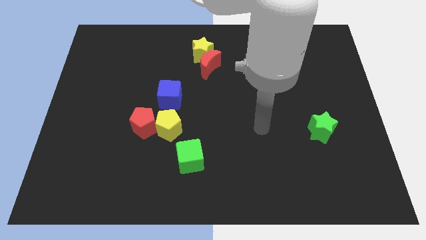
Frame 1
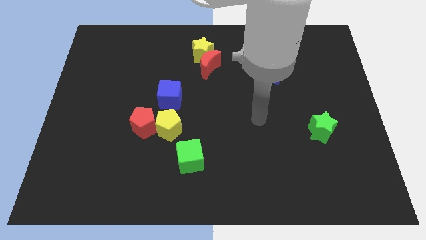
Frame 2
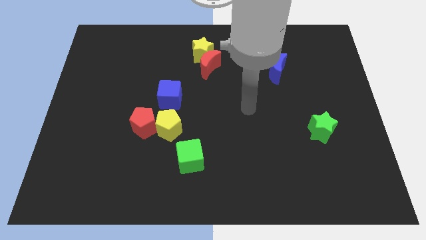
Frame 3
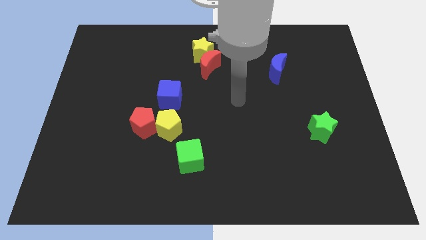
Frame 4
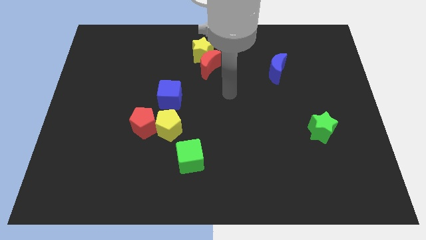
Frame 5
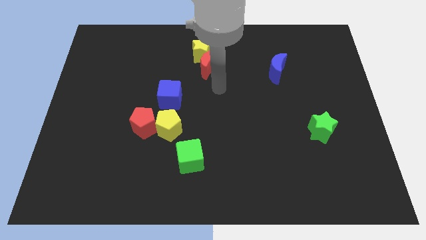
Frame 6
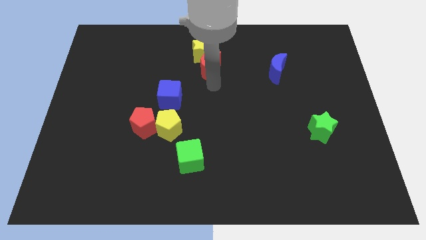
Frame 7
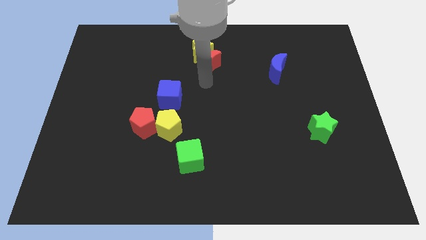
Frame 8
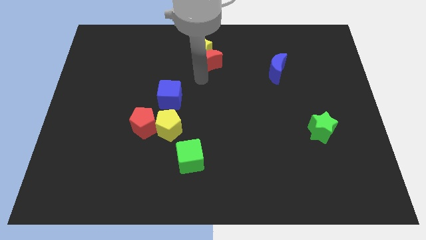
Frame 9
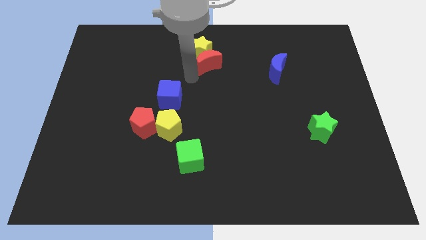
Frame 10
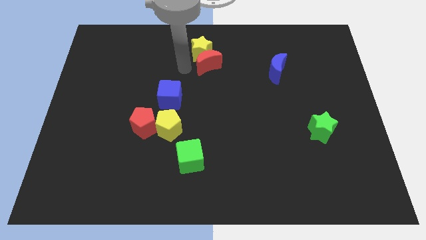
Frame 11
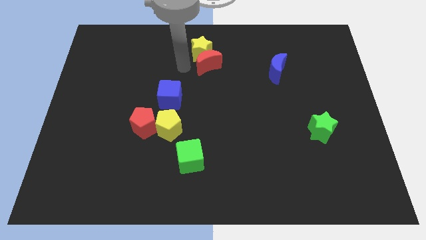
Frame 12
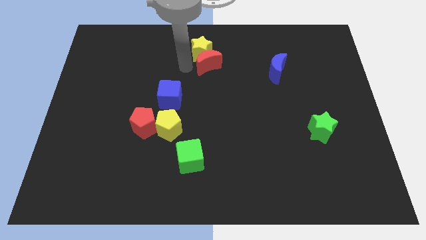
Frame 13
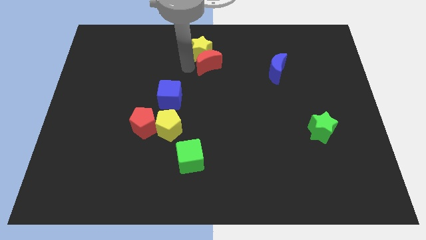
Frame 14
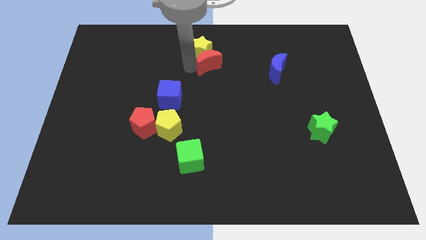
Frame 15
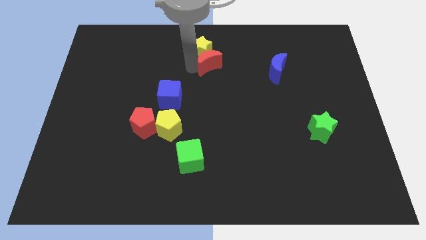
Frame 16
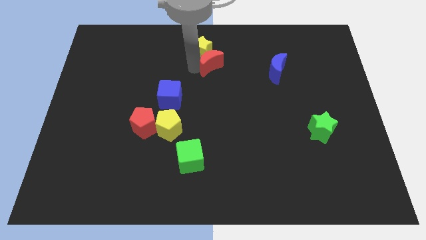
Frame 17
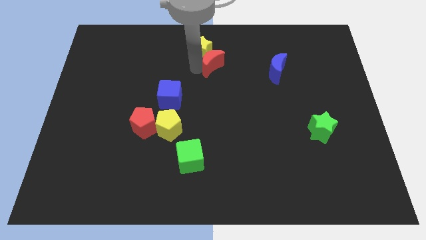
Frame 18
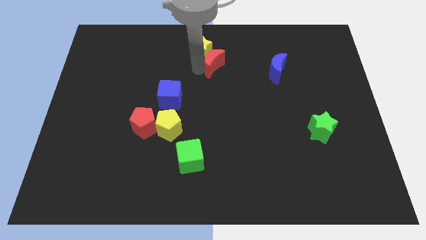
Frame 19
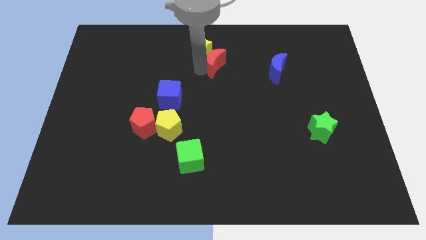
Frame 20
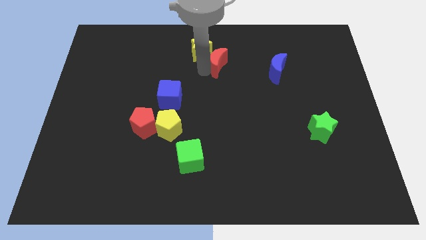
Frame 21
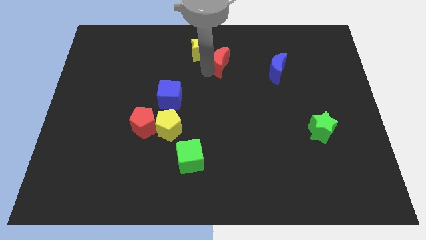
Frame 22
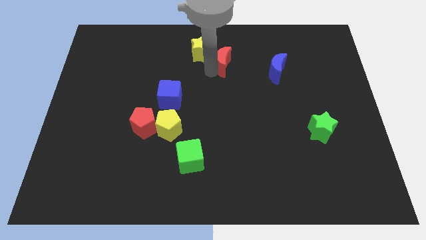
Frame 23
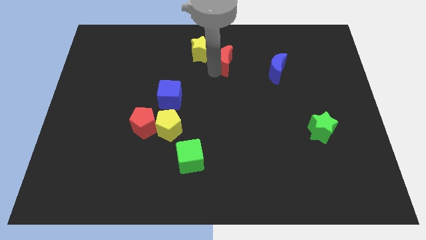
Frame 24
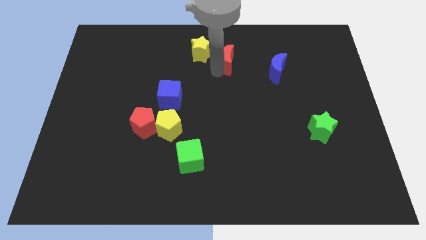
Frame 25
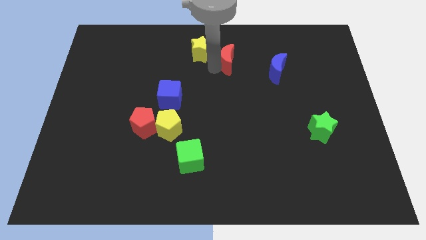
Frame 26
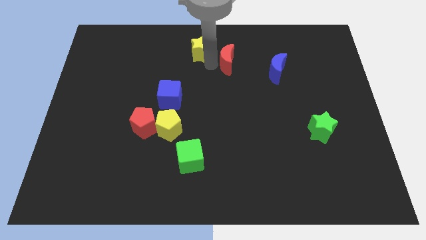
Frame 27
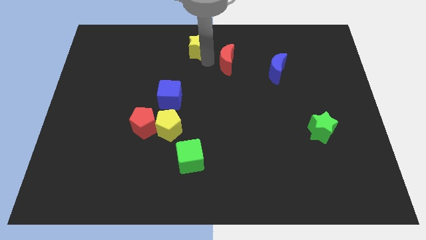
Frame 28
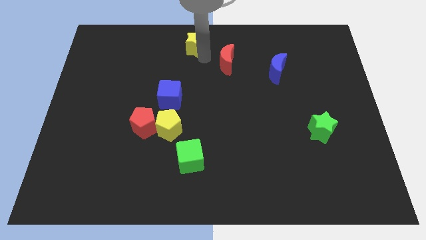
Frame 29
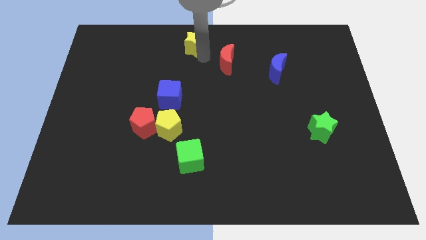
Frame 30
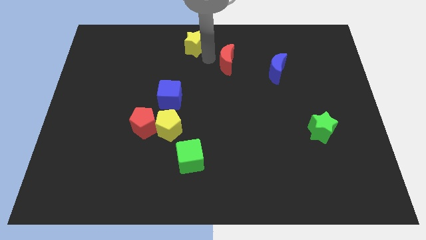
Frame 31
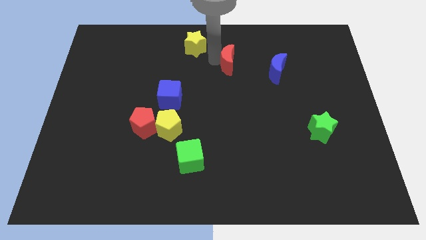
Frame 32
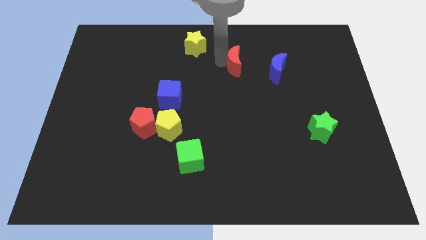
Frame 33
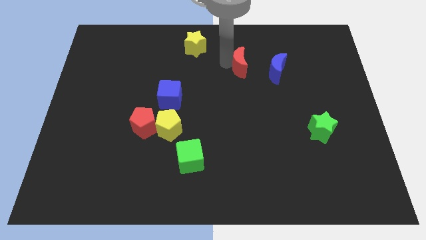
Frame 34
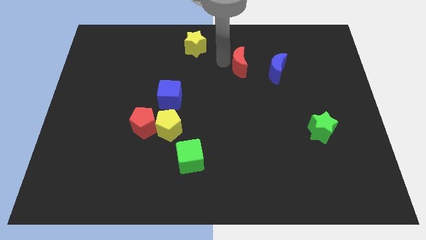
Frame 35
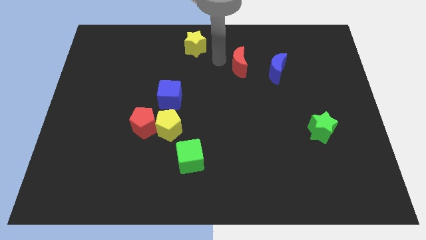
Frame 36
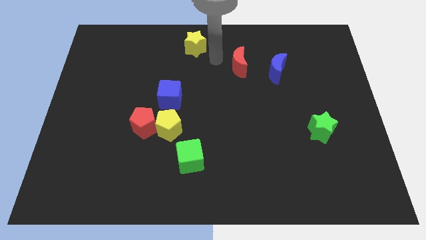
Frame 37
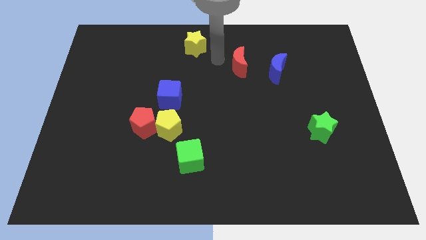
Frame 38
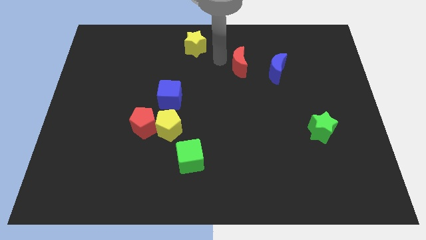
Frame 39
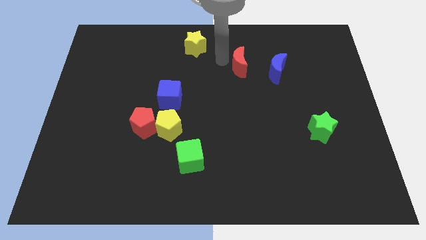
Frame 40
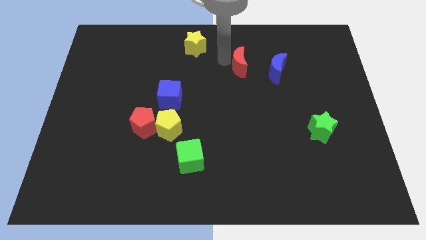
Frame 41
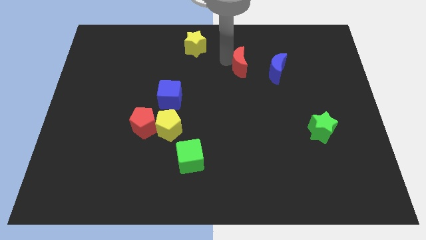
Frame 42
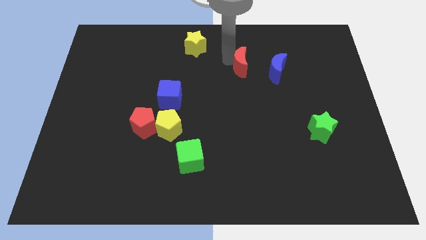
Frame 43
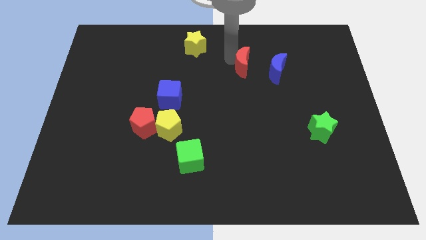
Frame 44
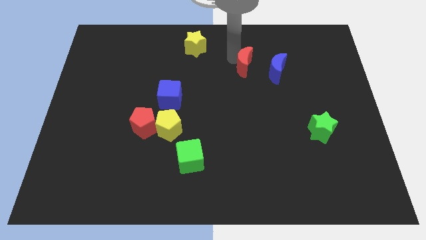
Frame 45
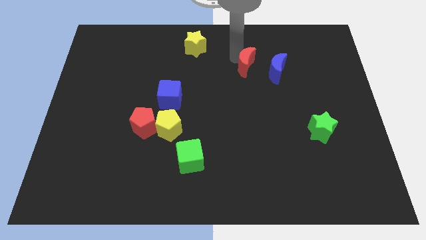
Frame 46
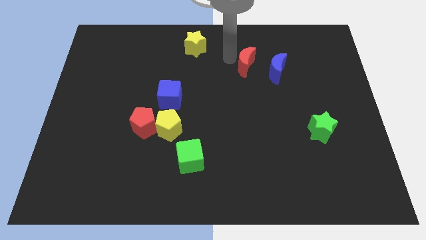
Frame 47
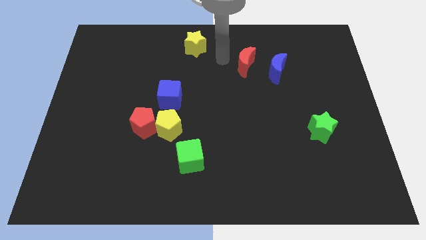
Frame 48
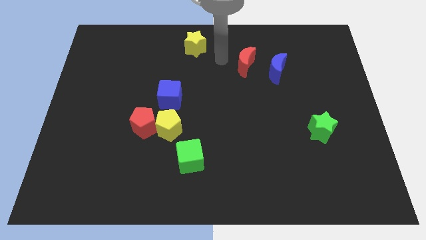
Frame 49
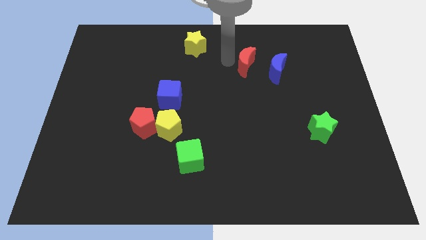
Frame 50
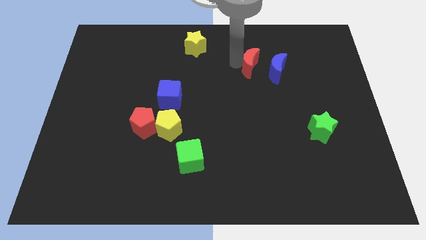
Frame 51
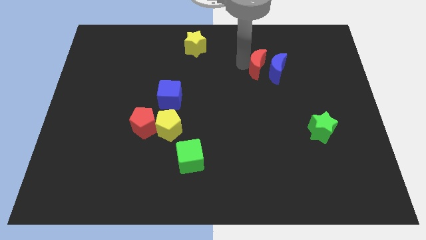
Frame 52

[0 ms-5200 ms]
slide the red moon to the blue moon

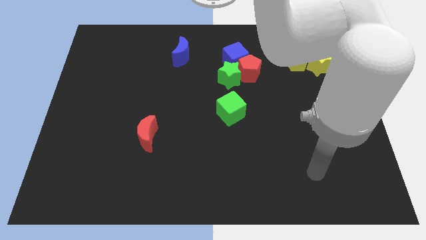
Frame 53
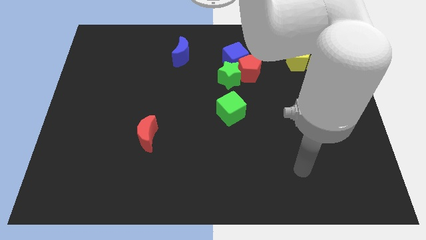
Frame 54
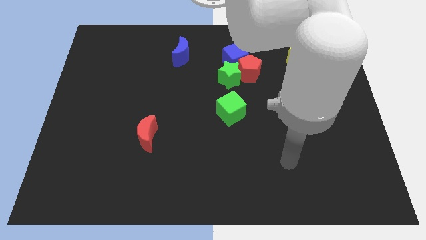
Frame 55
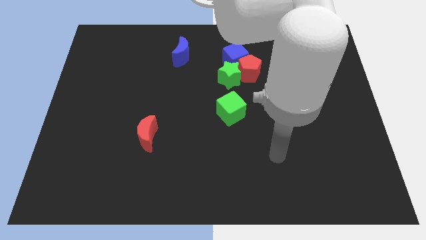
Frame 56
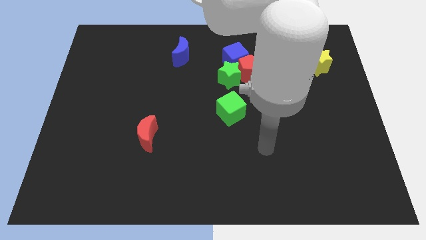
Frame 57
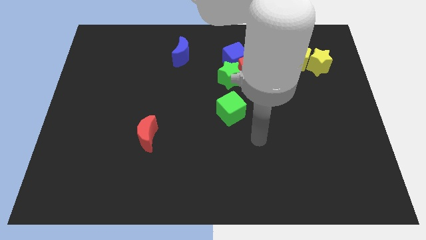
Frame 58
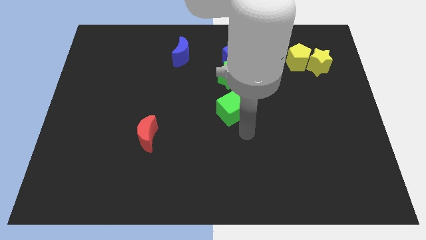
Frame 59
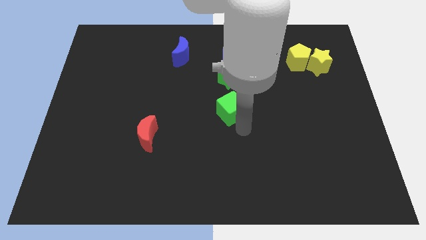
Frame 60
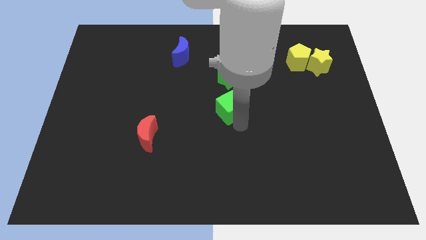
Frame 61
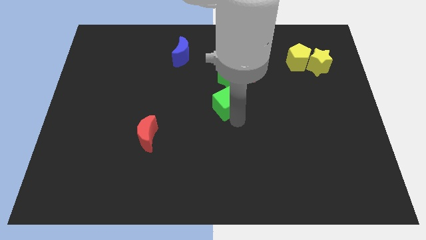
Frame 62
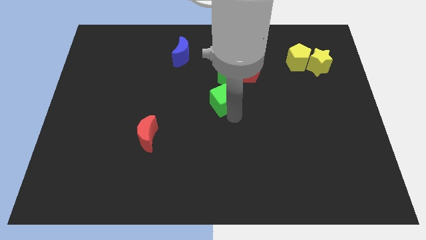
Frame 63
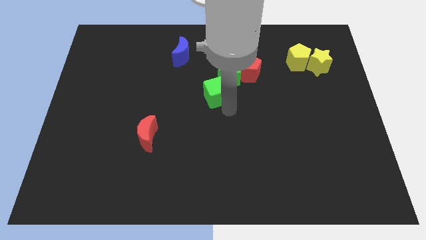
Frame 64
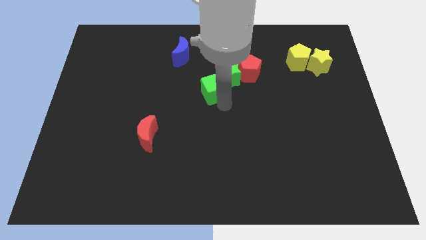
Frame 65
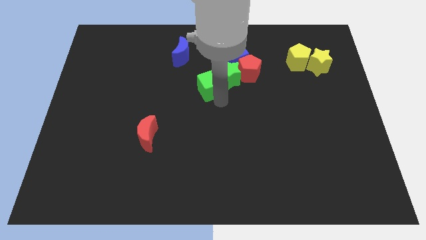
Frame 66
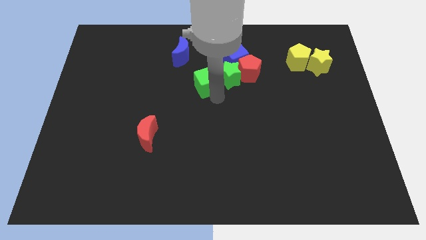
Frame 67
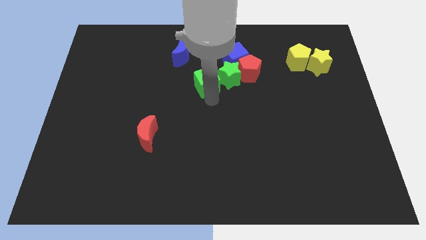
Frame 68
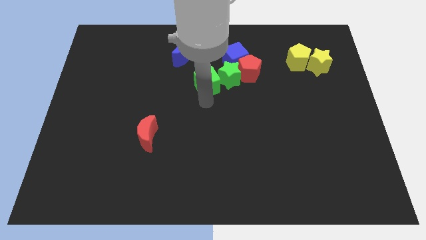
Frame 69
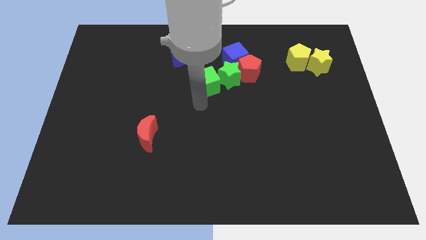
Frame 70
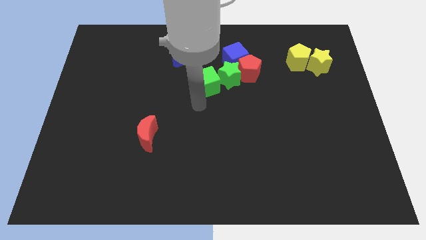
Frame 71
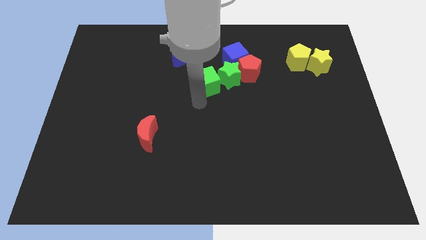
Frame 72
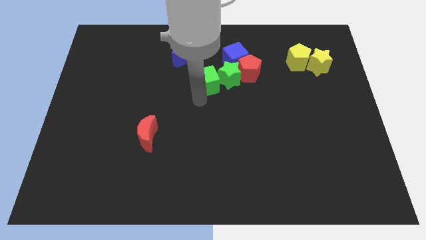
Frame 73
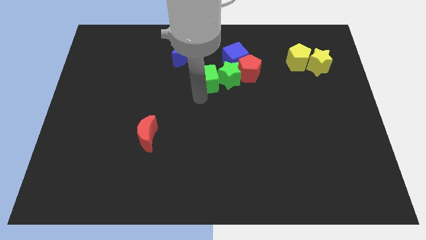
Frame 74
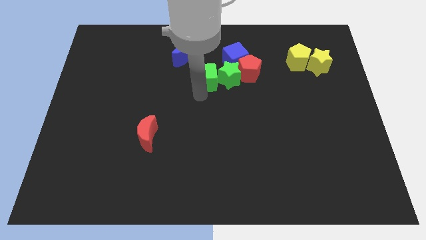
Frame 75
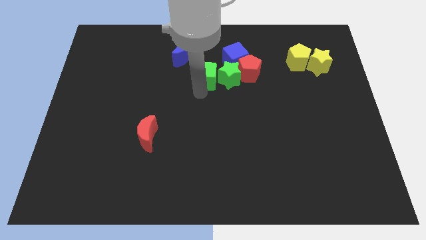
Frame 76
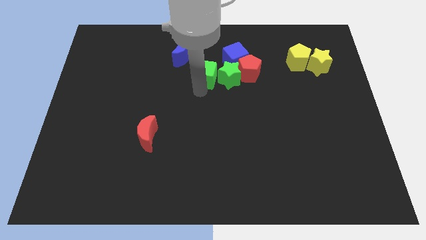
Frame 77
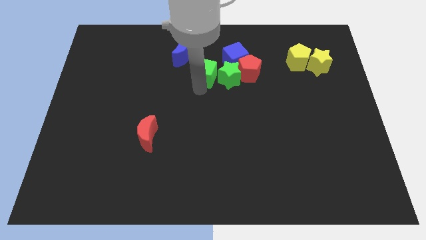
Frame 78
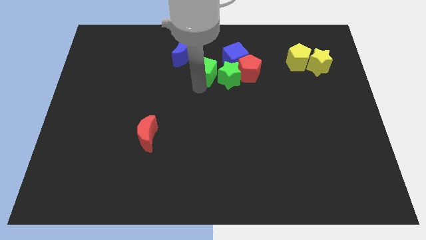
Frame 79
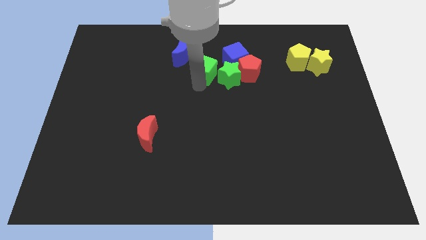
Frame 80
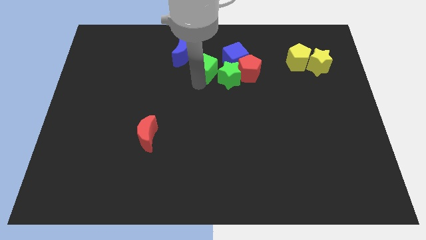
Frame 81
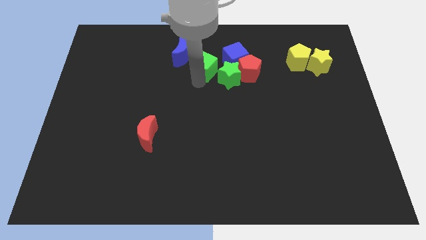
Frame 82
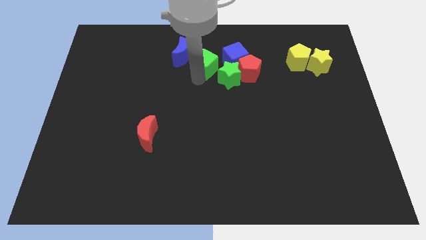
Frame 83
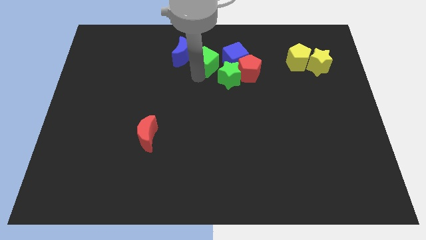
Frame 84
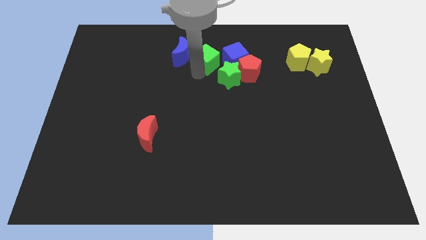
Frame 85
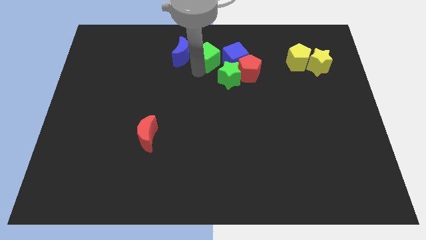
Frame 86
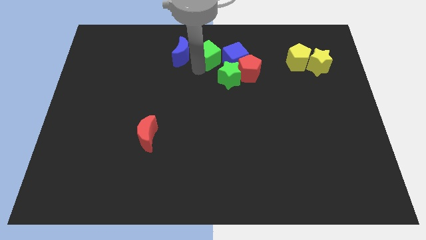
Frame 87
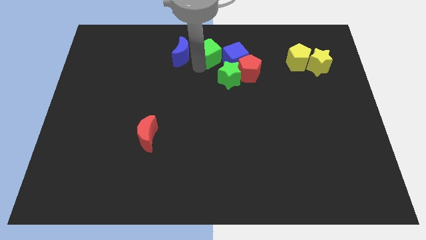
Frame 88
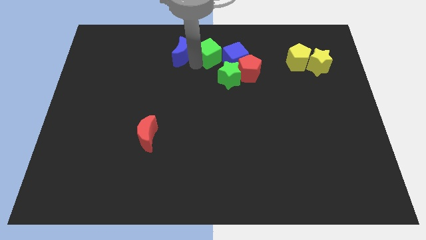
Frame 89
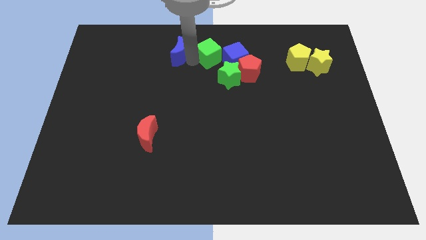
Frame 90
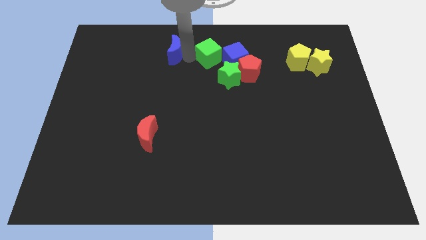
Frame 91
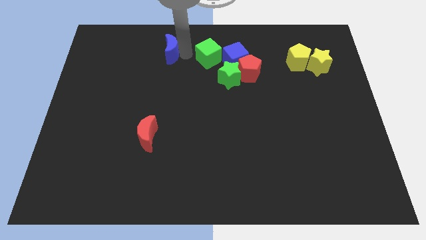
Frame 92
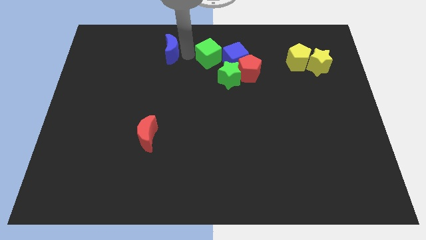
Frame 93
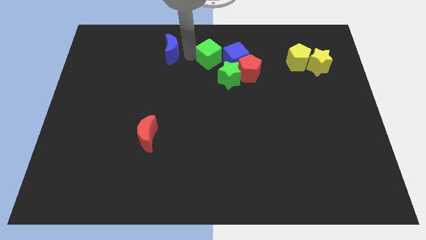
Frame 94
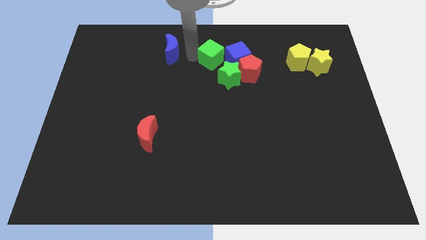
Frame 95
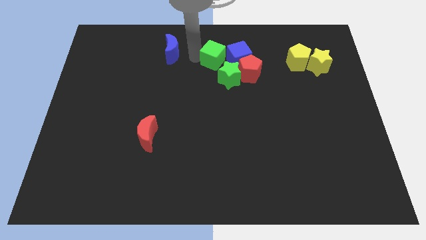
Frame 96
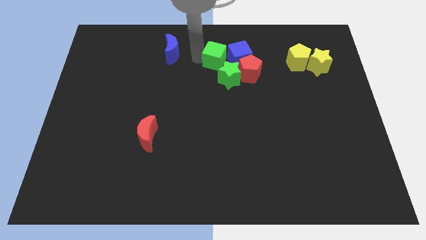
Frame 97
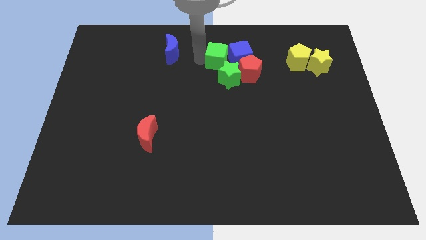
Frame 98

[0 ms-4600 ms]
move the green cube towards the blue cube
